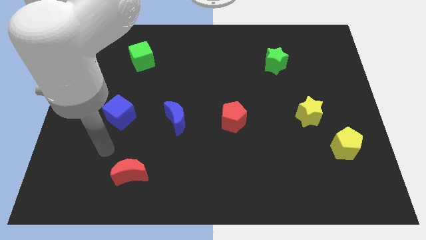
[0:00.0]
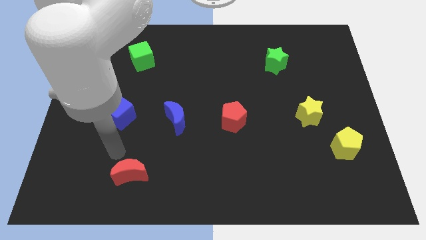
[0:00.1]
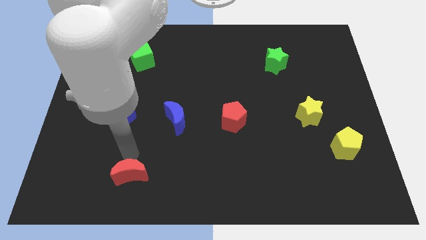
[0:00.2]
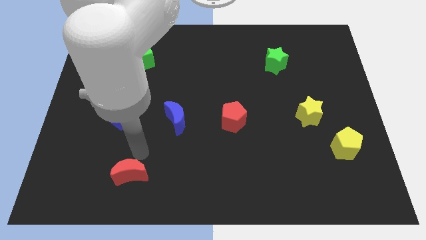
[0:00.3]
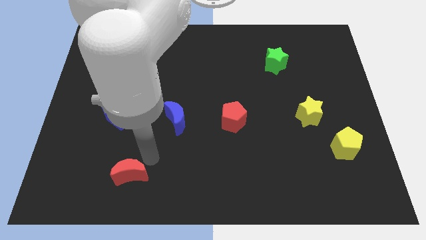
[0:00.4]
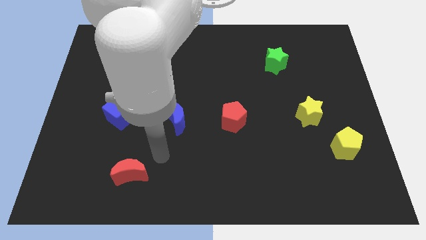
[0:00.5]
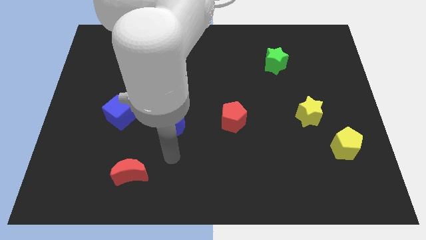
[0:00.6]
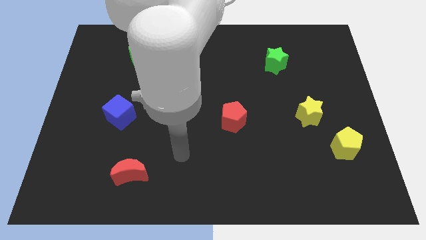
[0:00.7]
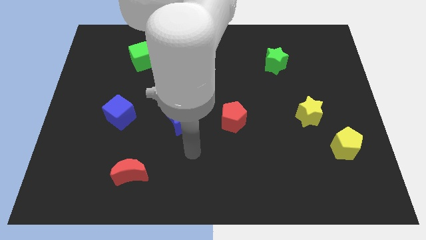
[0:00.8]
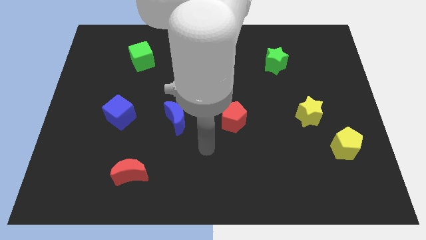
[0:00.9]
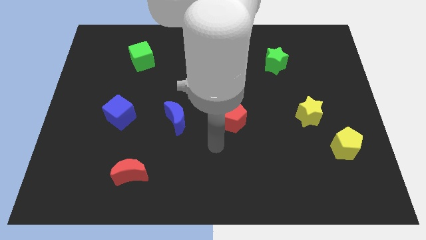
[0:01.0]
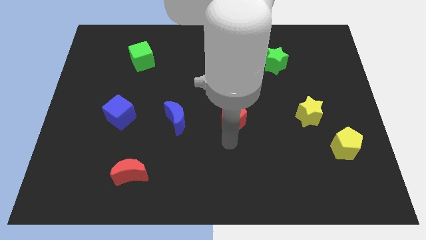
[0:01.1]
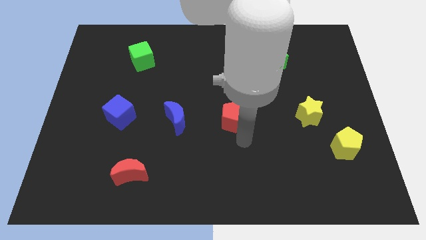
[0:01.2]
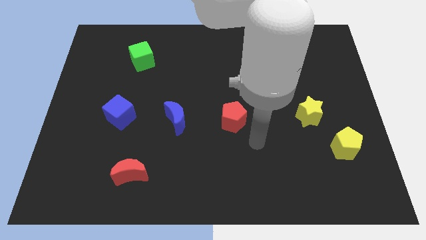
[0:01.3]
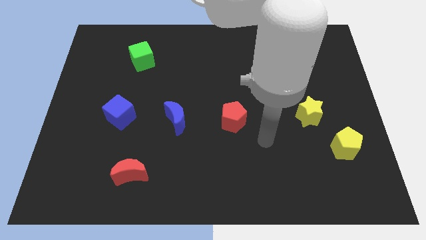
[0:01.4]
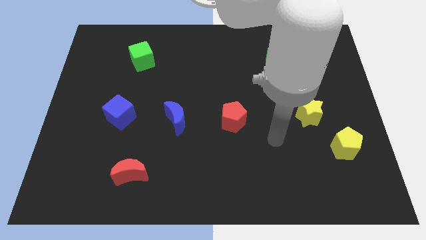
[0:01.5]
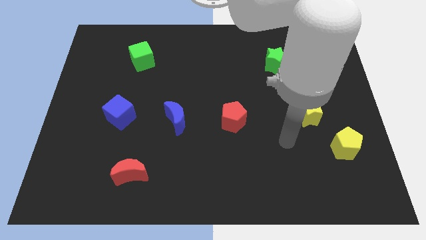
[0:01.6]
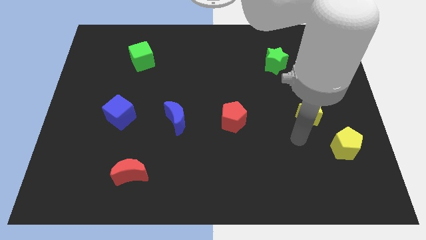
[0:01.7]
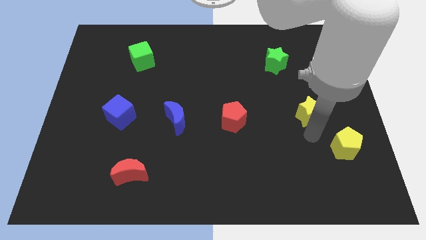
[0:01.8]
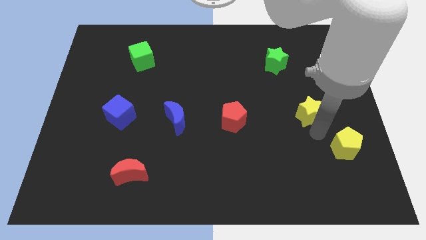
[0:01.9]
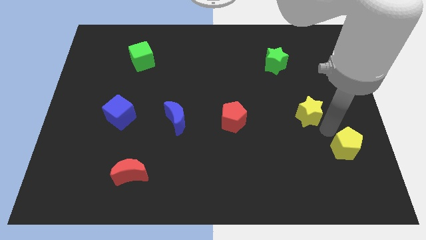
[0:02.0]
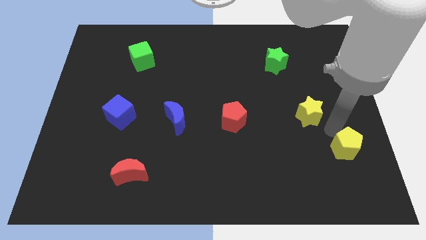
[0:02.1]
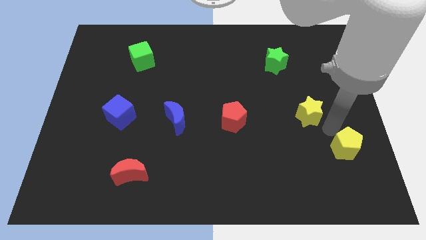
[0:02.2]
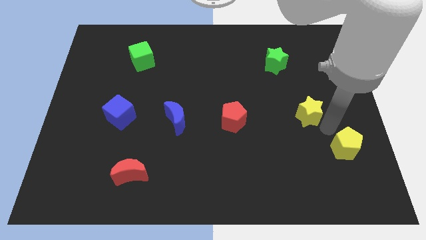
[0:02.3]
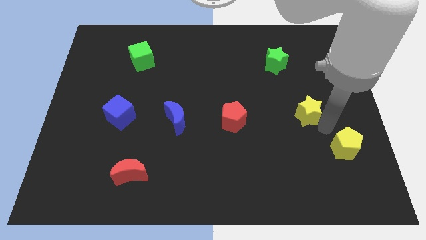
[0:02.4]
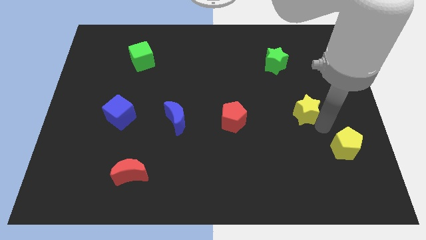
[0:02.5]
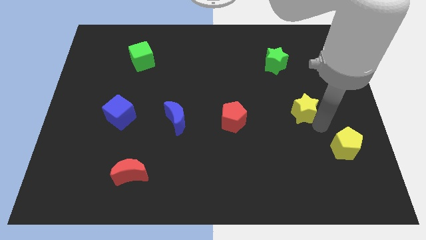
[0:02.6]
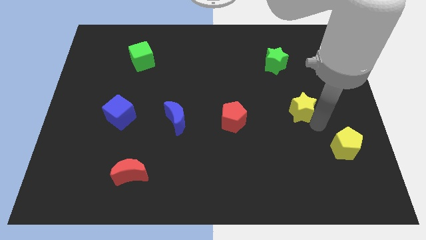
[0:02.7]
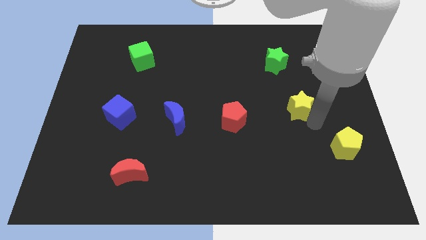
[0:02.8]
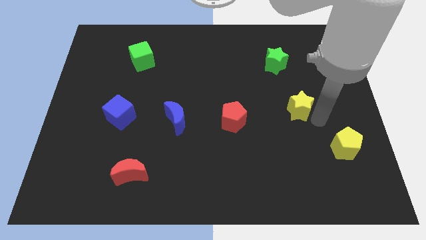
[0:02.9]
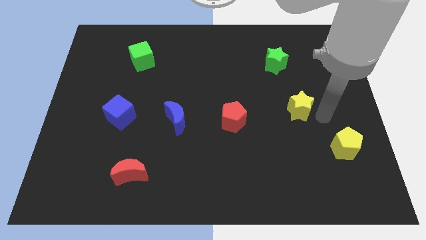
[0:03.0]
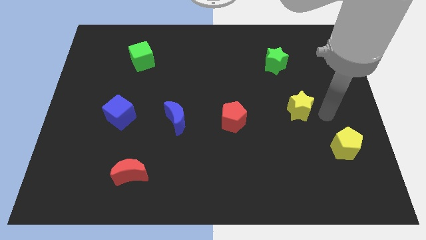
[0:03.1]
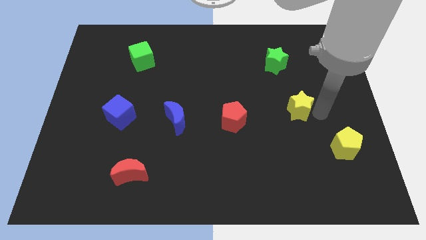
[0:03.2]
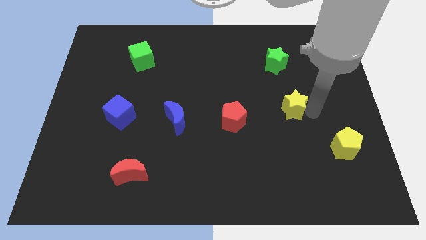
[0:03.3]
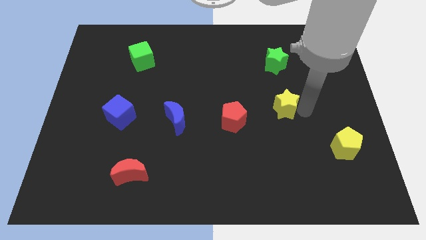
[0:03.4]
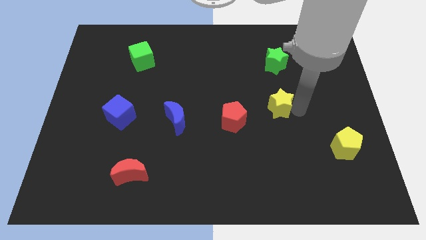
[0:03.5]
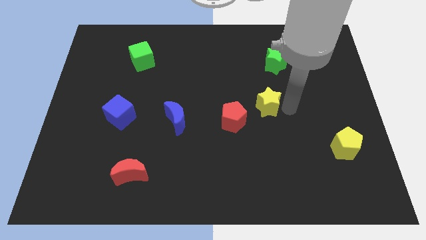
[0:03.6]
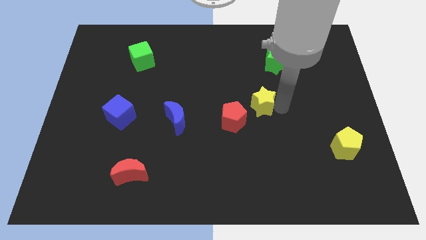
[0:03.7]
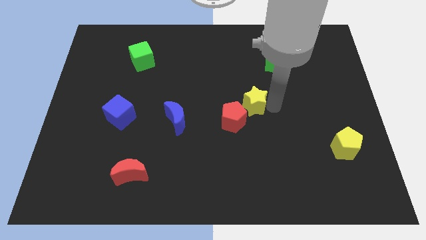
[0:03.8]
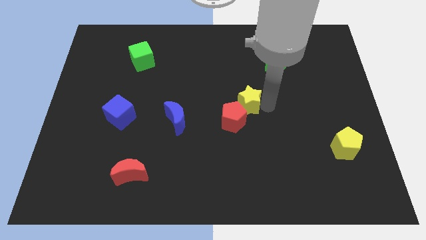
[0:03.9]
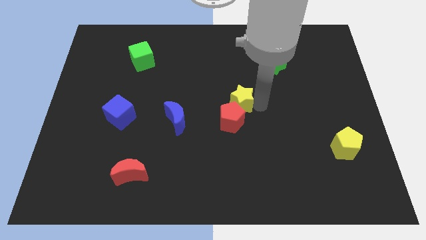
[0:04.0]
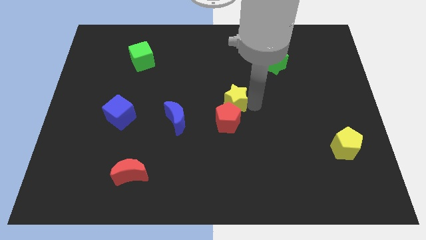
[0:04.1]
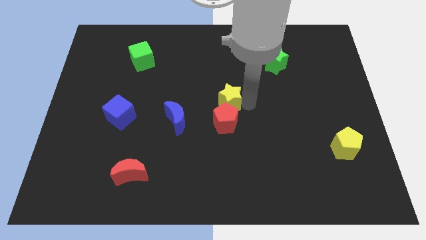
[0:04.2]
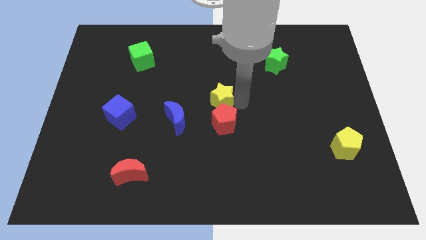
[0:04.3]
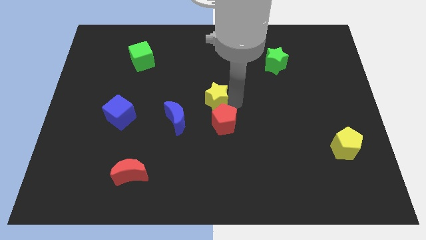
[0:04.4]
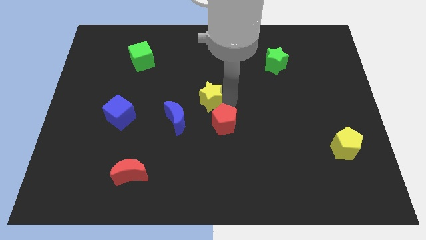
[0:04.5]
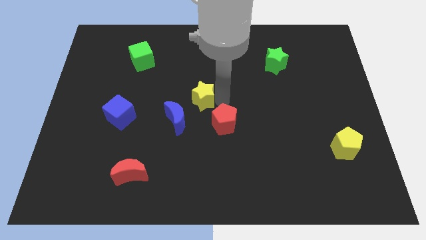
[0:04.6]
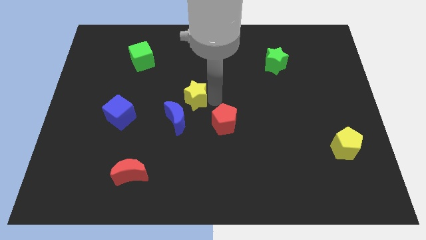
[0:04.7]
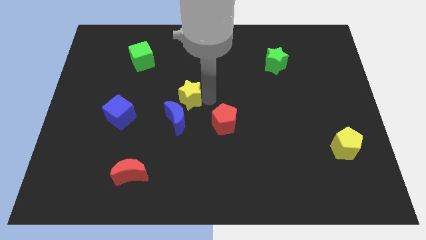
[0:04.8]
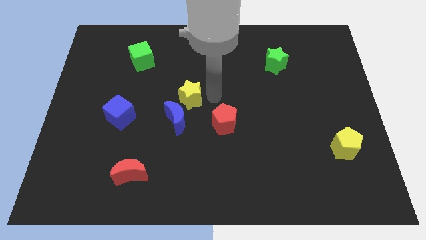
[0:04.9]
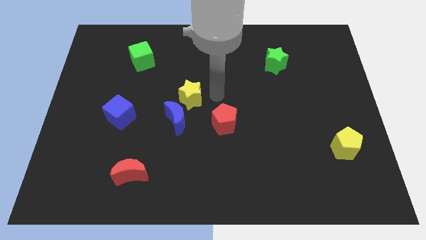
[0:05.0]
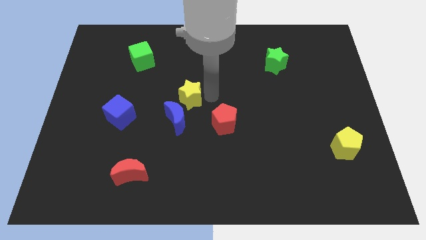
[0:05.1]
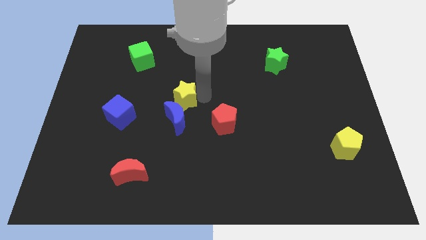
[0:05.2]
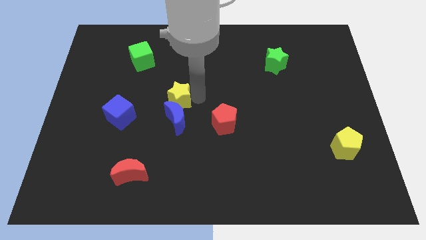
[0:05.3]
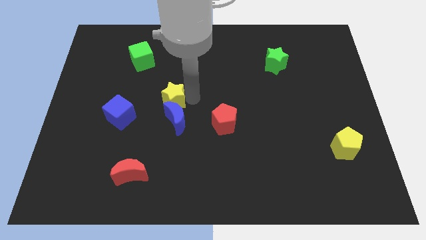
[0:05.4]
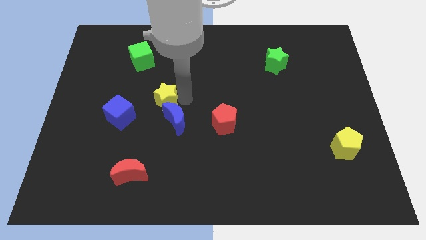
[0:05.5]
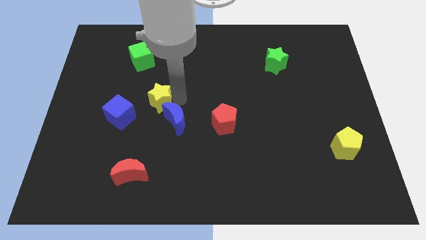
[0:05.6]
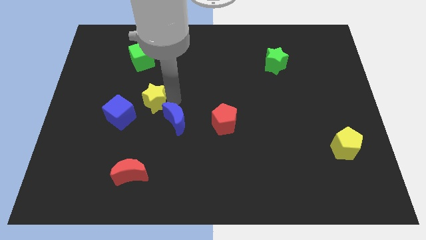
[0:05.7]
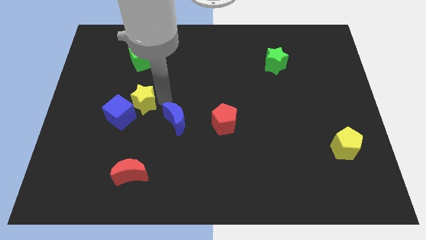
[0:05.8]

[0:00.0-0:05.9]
move the yellow star towards the blue cube

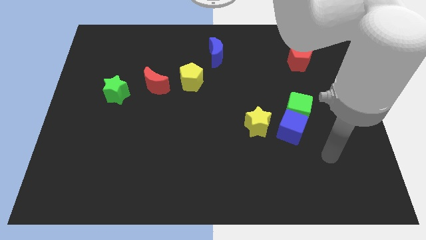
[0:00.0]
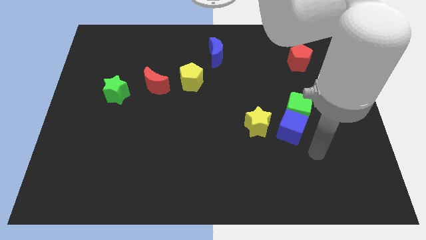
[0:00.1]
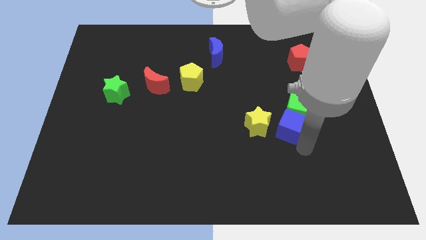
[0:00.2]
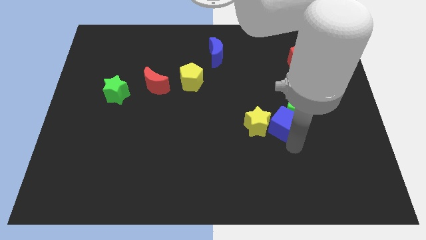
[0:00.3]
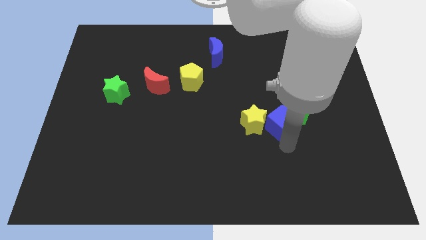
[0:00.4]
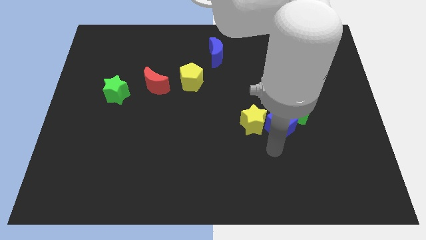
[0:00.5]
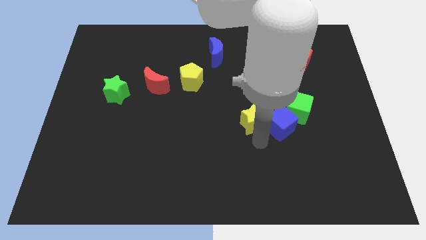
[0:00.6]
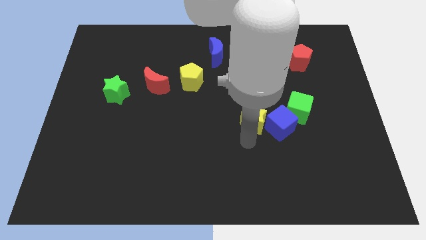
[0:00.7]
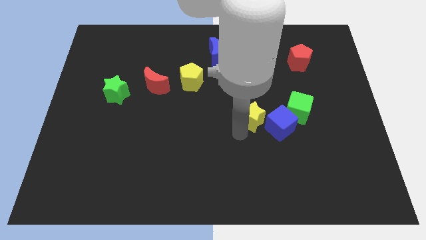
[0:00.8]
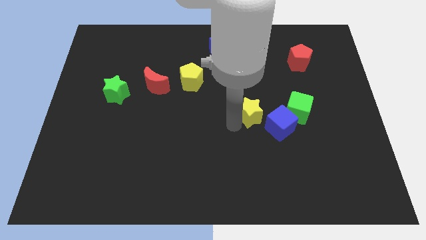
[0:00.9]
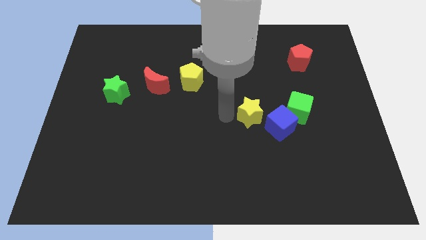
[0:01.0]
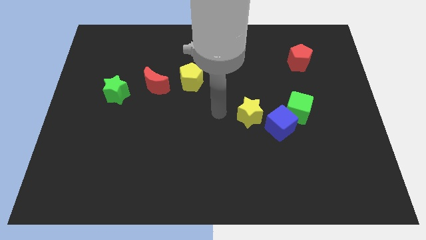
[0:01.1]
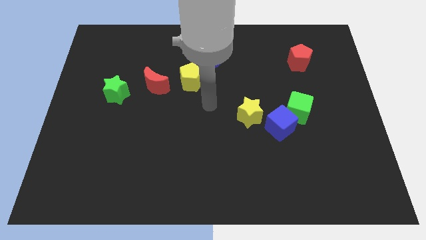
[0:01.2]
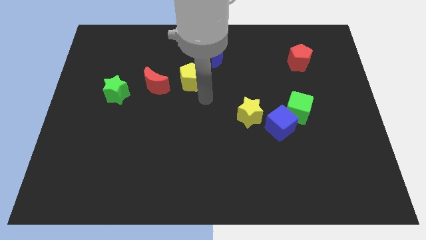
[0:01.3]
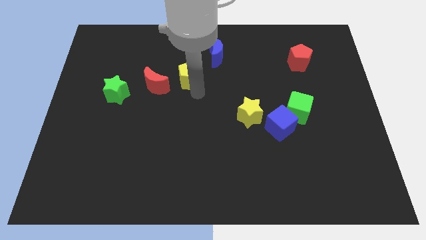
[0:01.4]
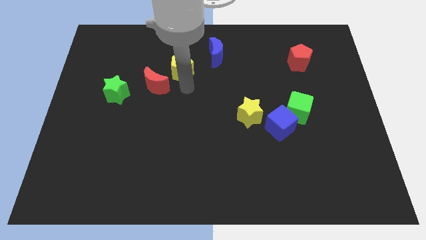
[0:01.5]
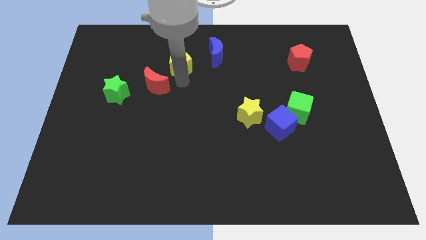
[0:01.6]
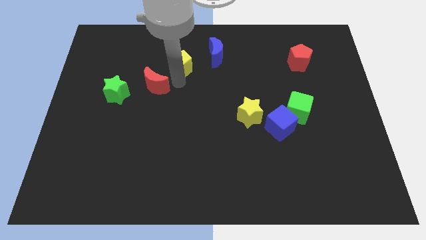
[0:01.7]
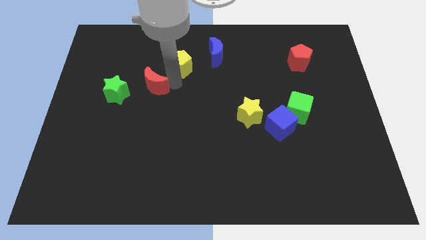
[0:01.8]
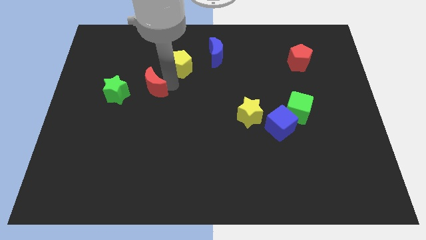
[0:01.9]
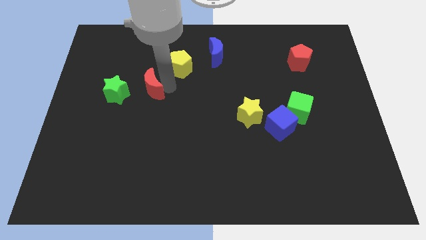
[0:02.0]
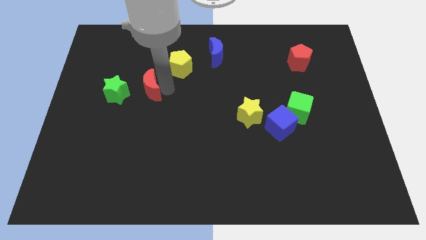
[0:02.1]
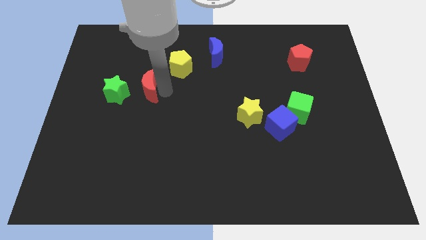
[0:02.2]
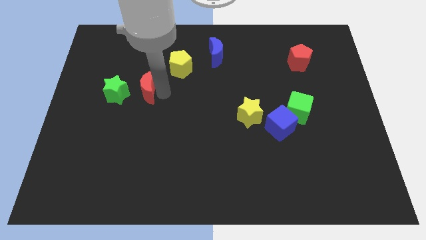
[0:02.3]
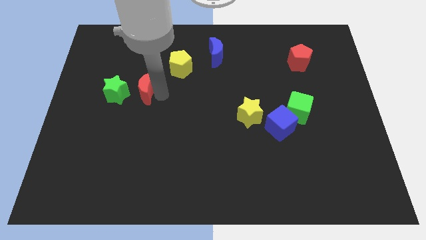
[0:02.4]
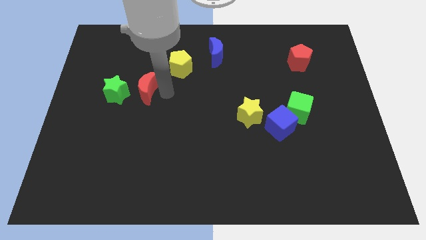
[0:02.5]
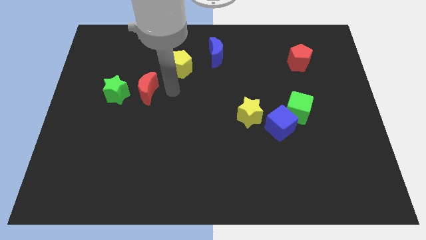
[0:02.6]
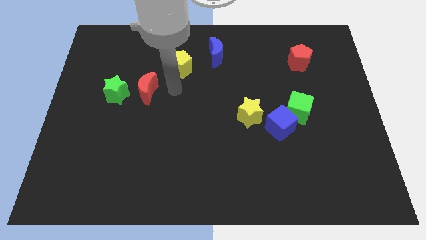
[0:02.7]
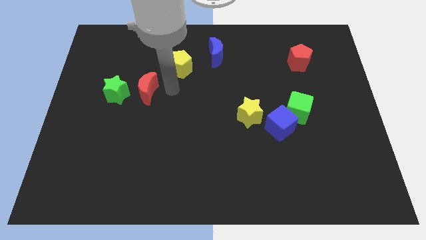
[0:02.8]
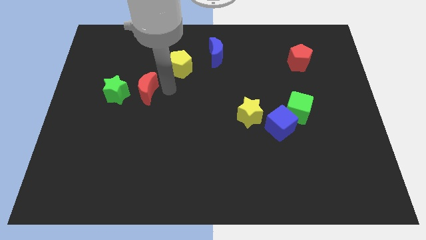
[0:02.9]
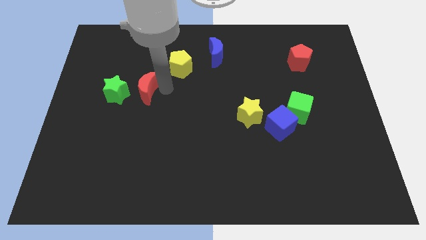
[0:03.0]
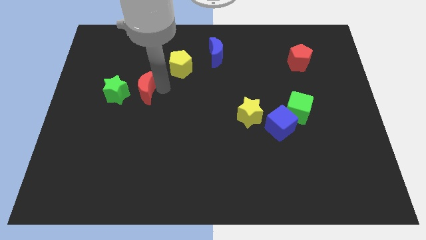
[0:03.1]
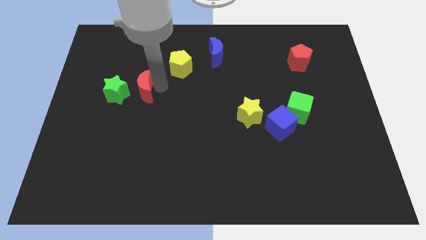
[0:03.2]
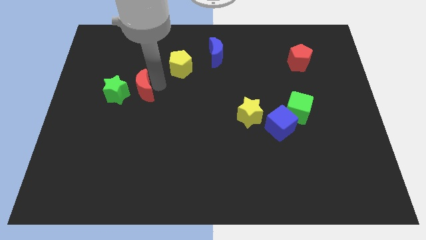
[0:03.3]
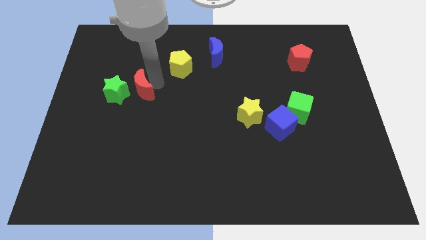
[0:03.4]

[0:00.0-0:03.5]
move the red moon to the green star
